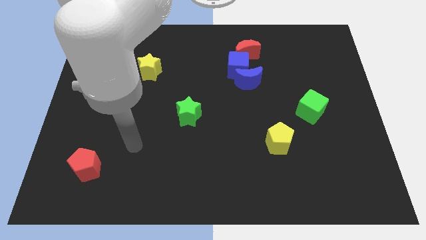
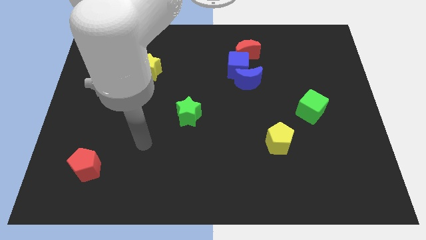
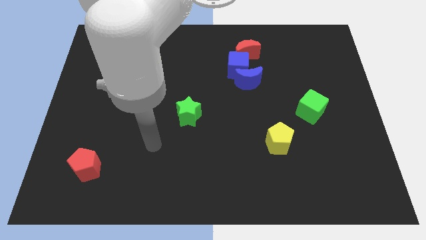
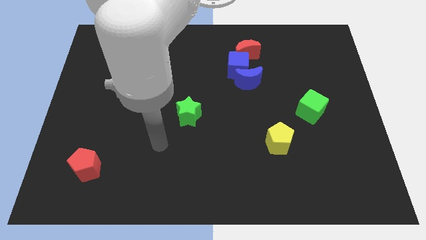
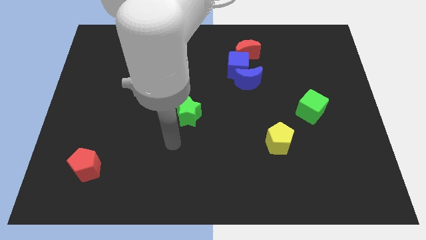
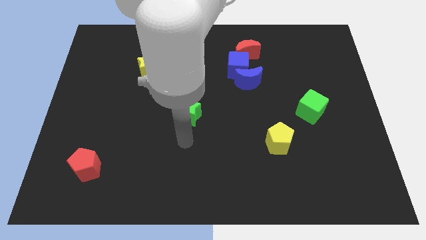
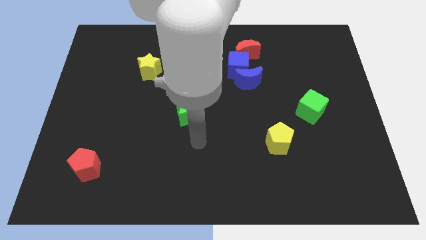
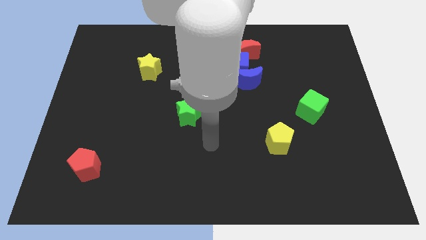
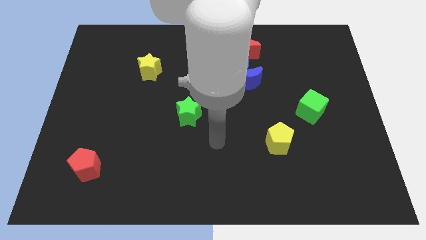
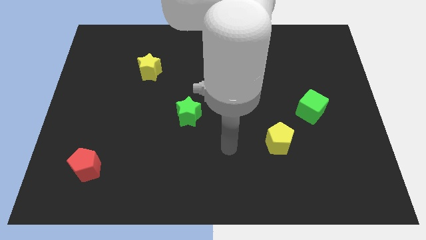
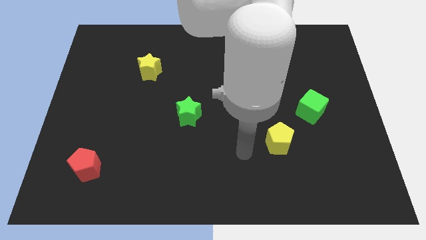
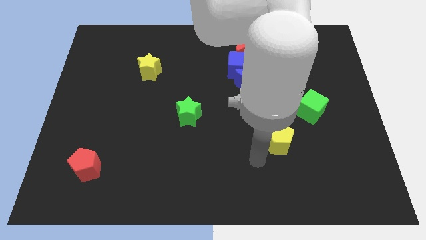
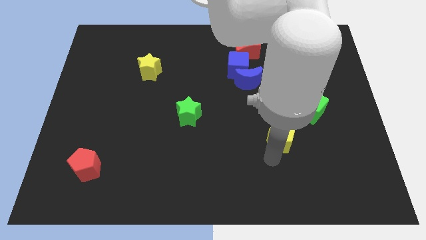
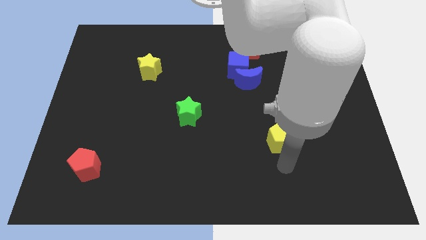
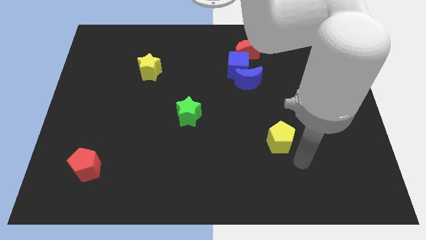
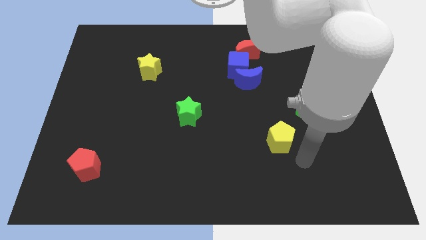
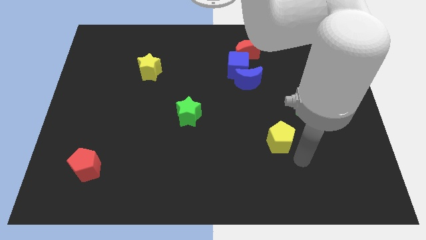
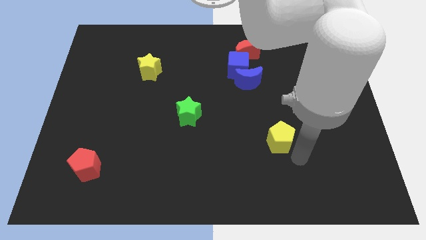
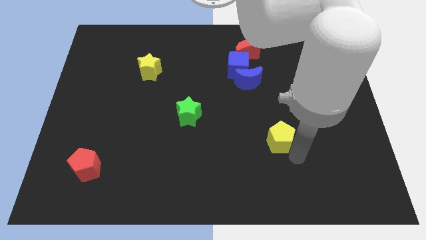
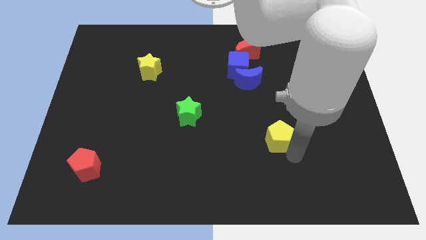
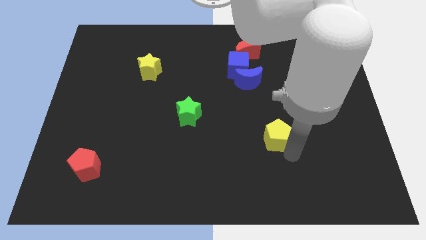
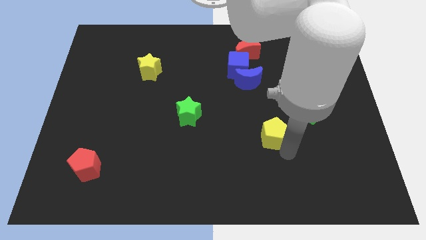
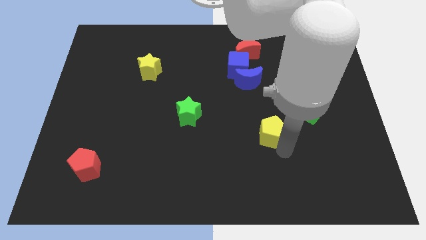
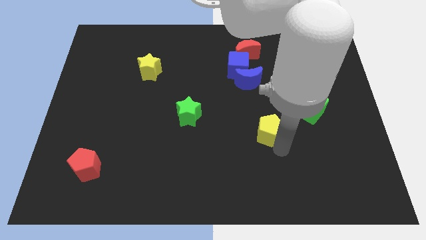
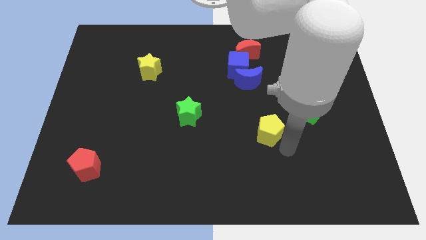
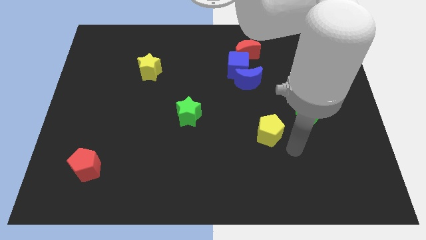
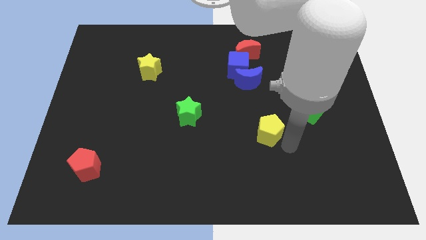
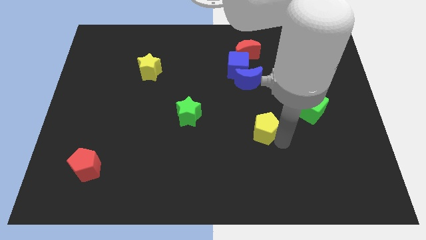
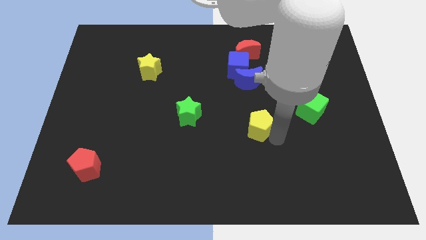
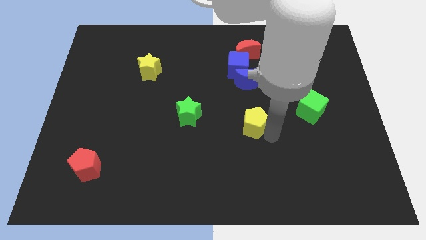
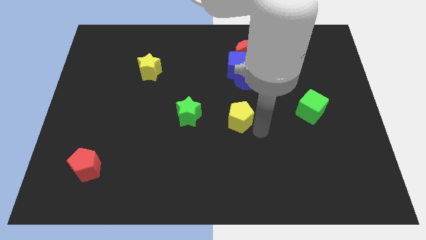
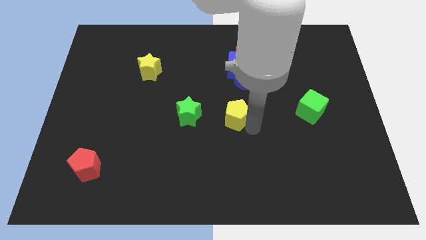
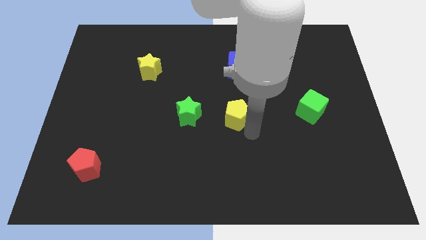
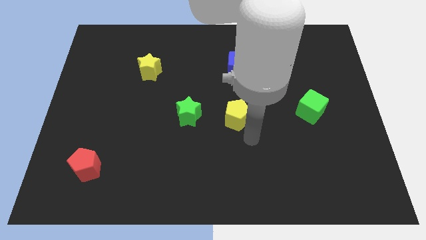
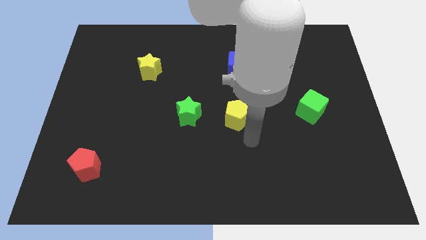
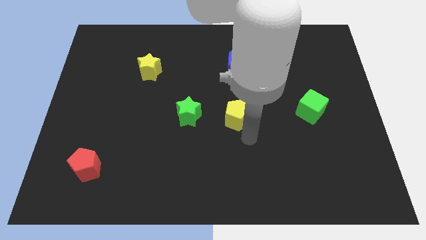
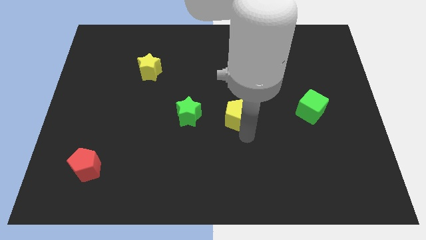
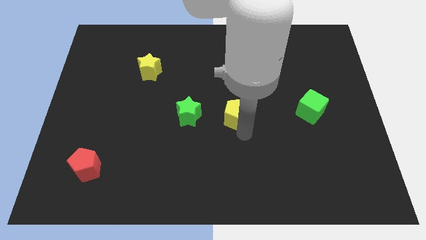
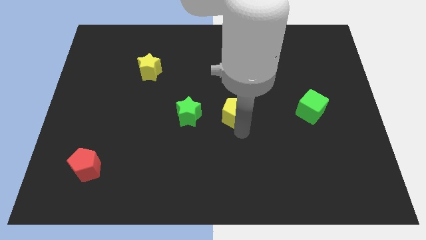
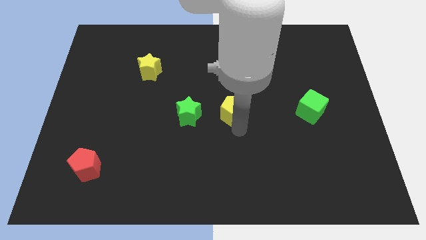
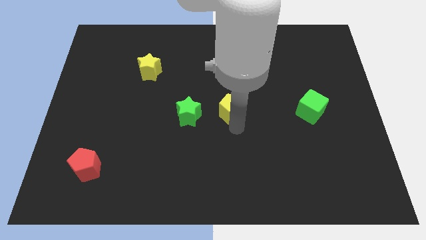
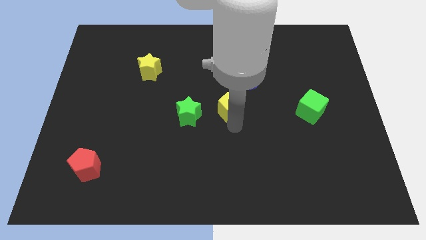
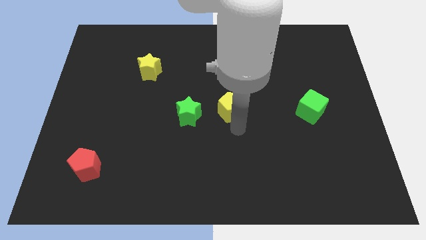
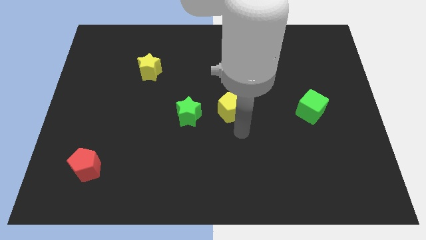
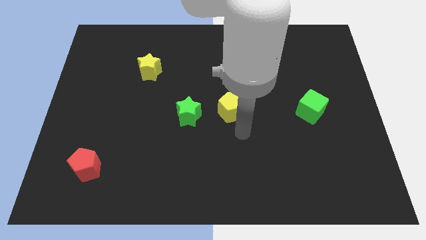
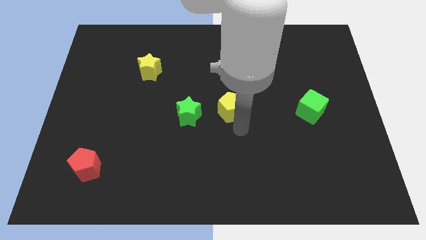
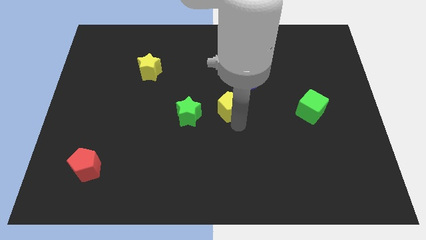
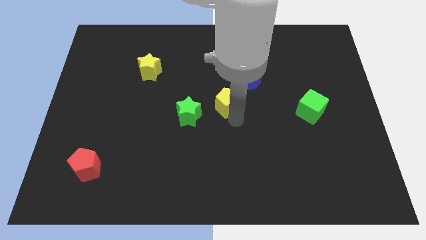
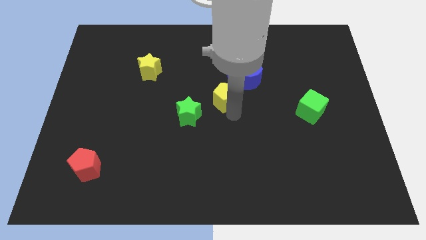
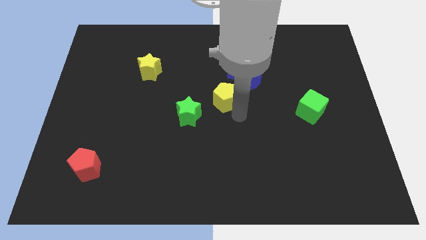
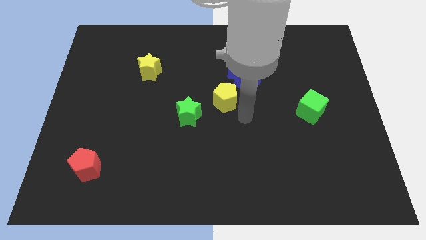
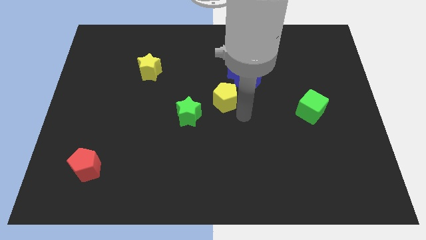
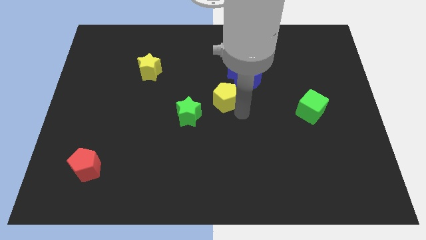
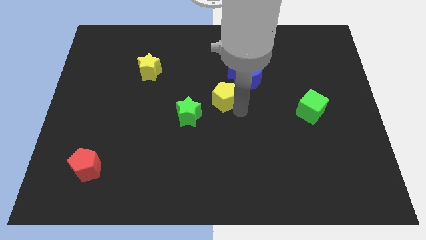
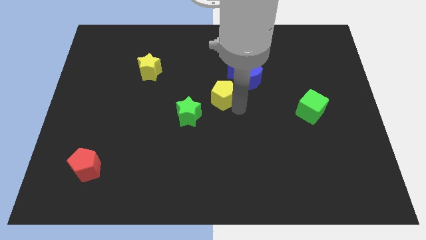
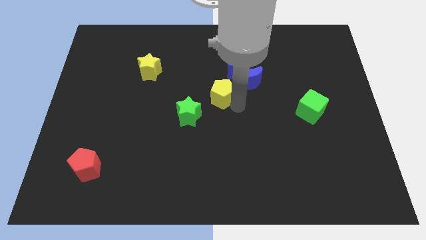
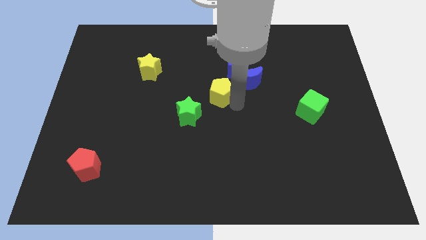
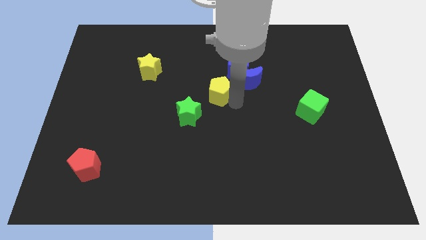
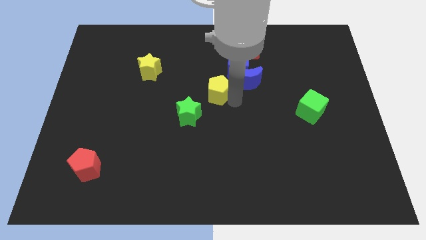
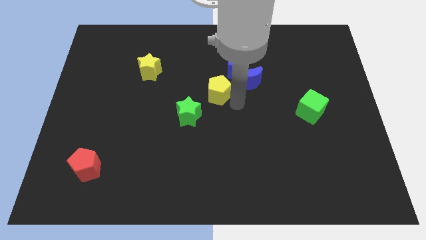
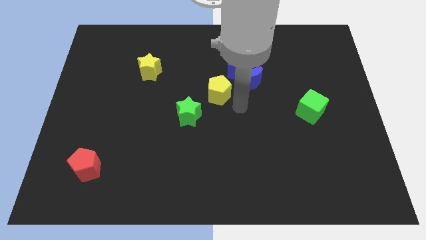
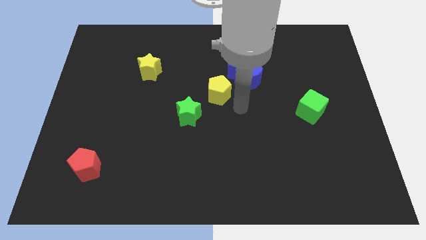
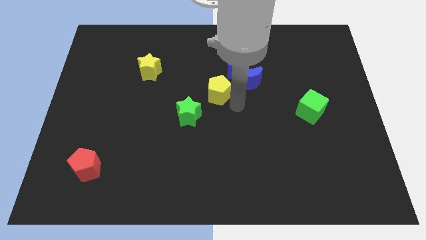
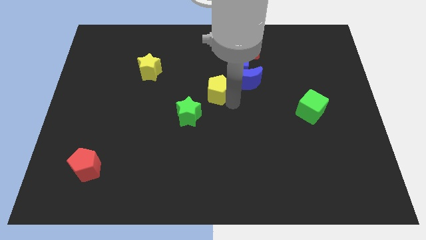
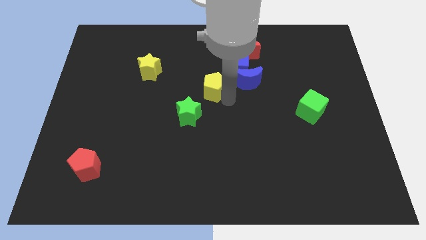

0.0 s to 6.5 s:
push the yellow pentagon up and then left

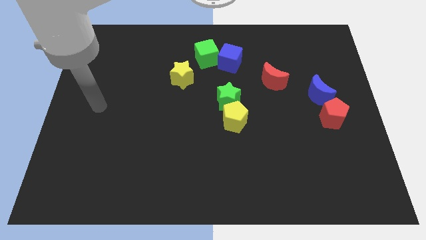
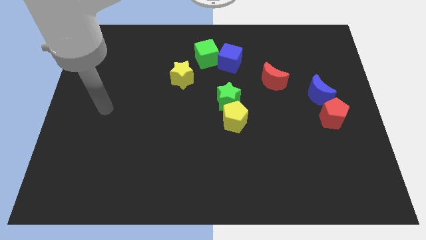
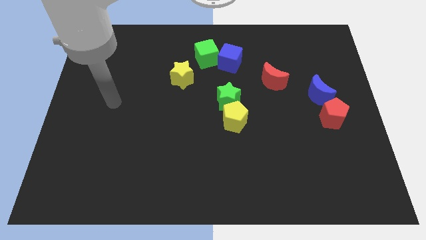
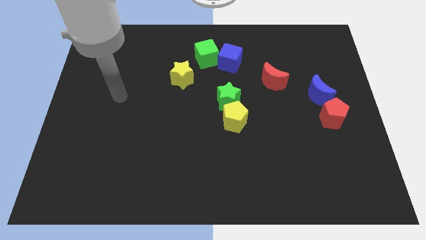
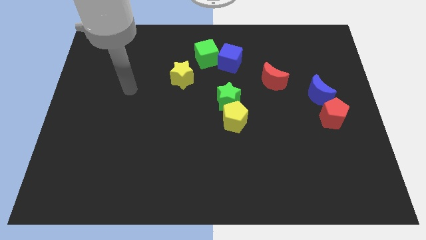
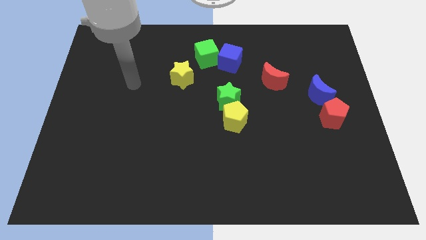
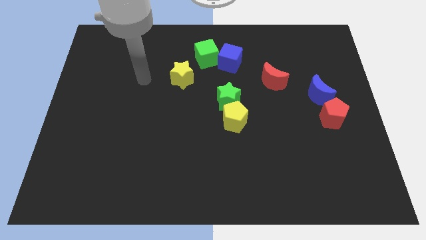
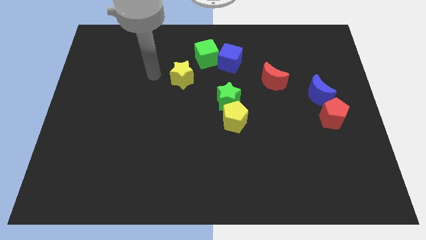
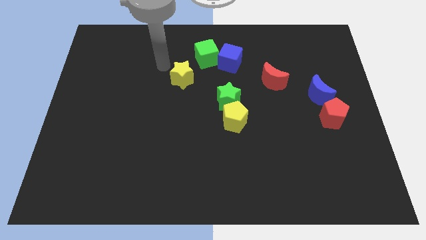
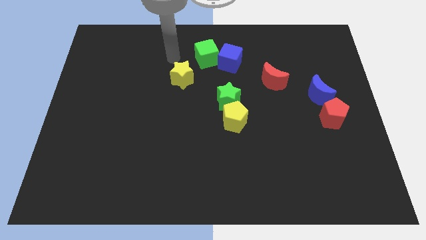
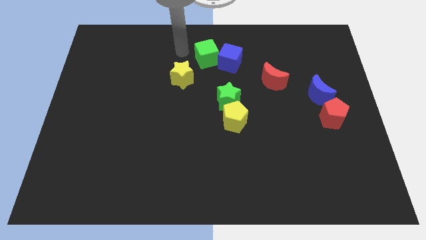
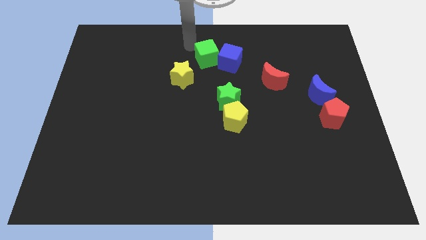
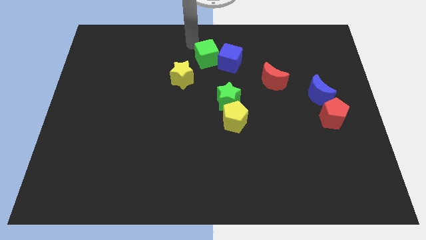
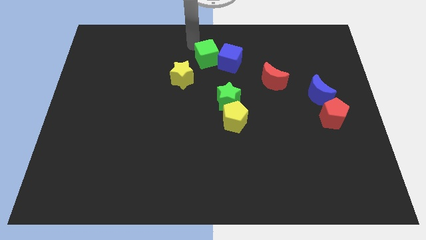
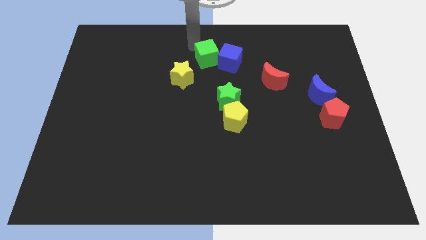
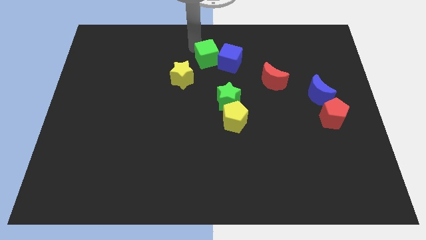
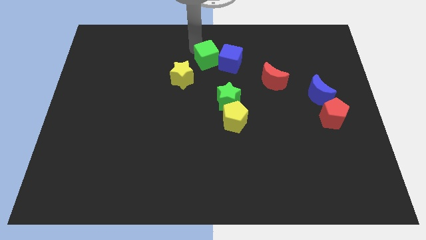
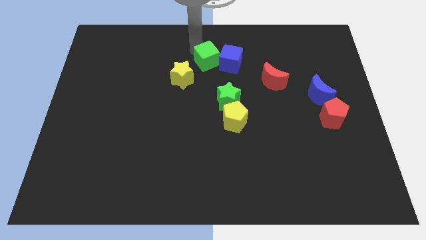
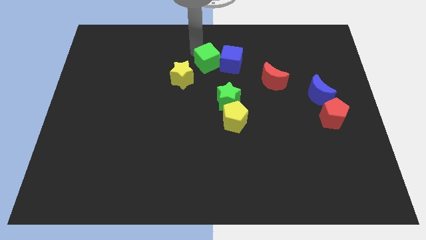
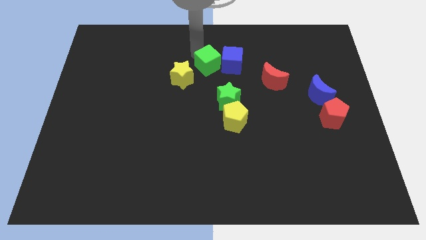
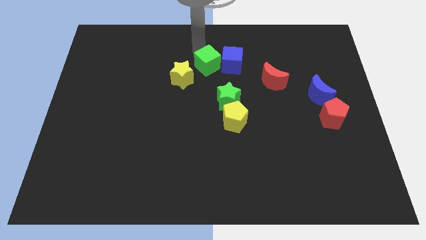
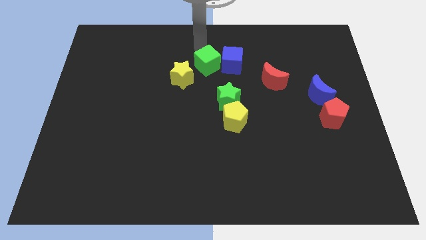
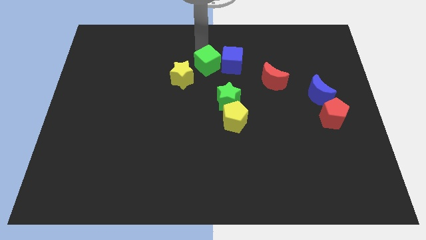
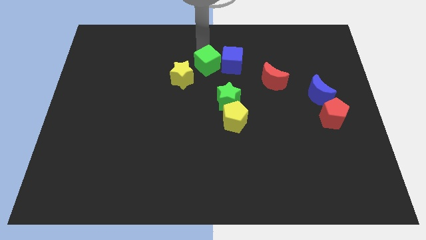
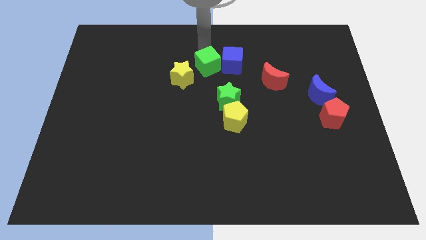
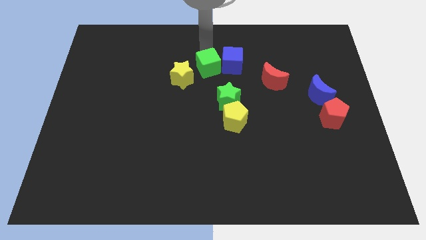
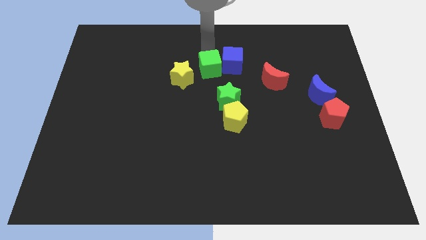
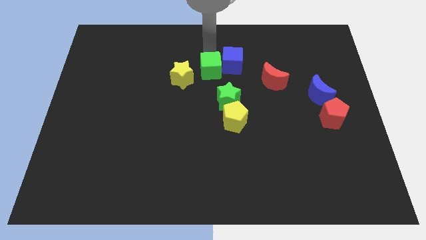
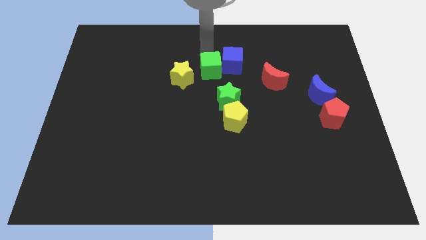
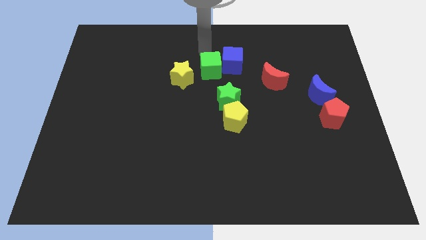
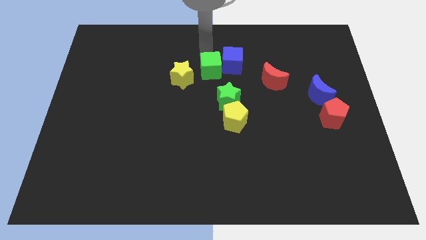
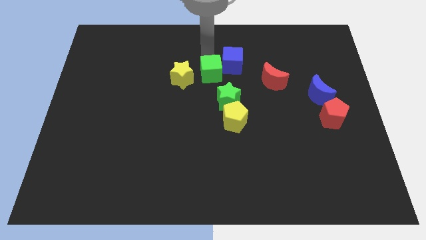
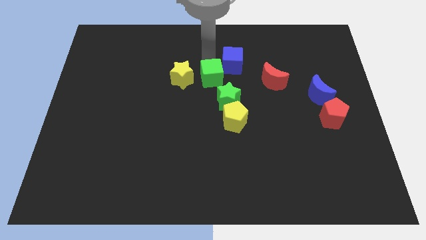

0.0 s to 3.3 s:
push the green cube slightly downwards
